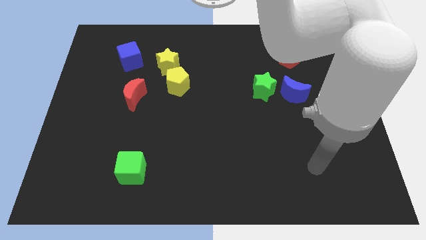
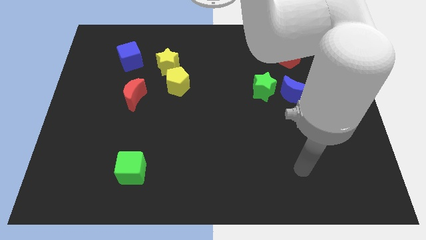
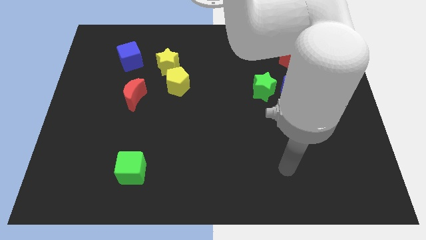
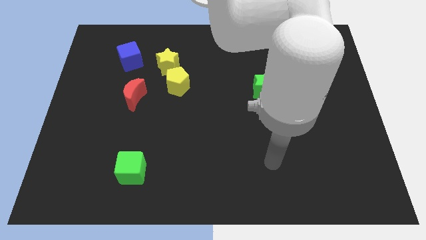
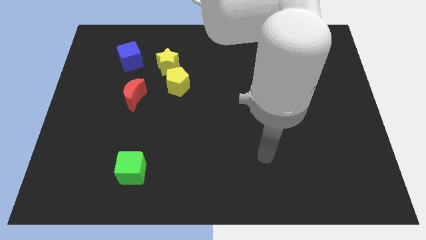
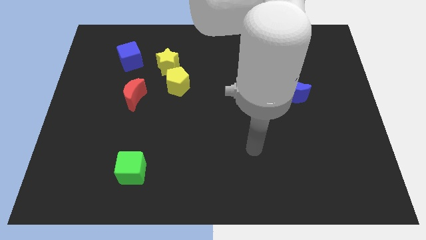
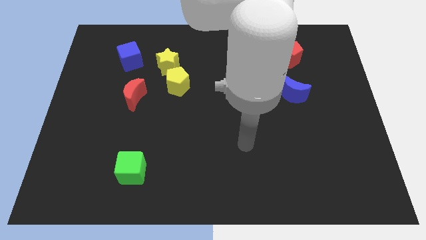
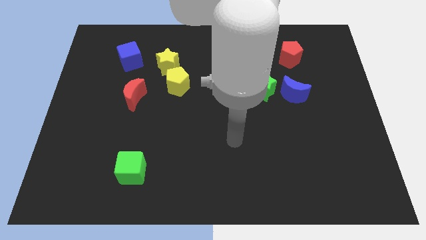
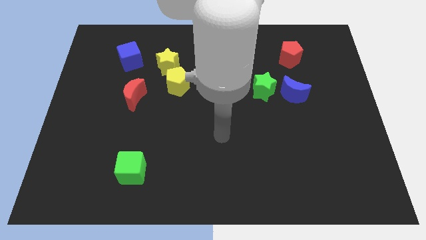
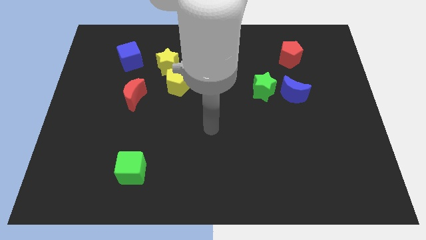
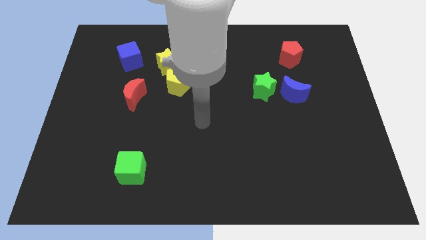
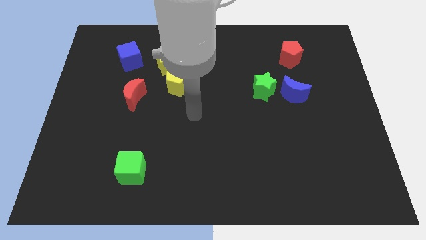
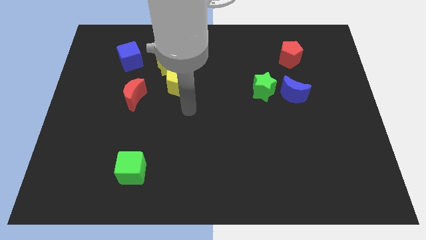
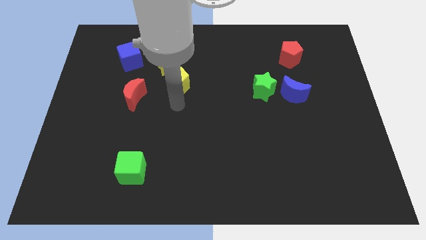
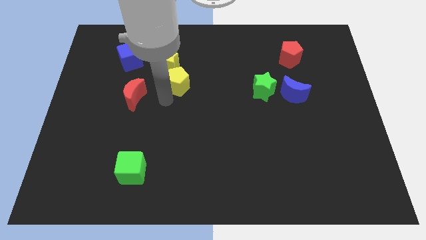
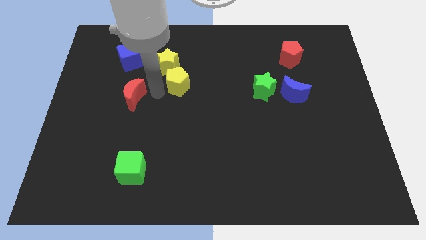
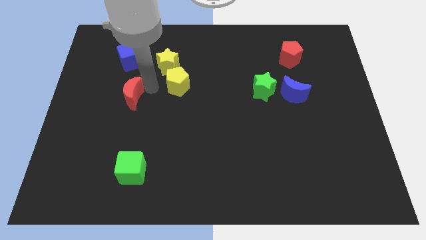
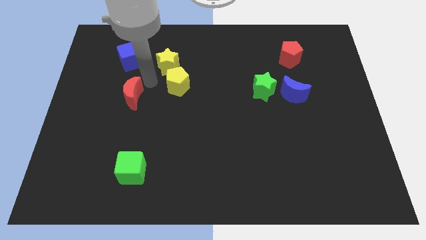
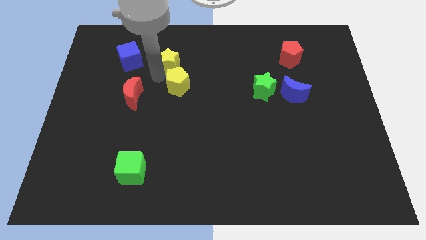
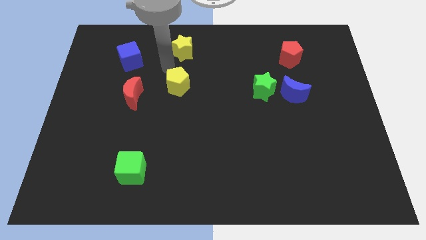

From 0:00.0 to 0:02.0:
pull the yellow pentagon apart from the yellow star

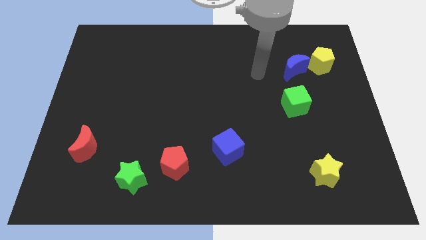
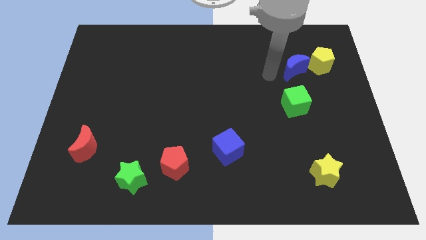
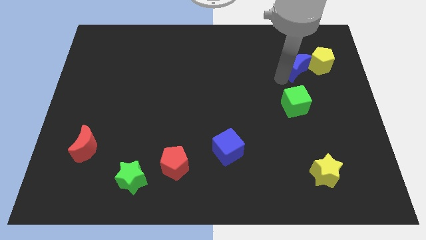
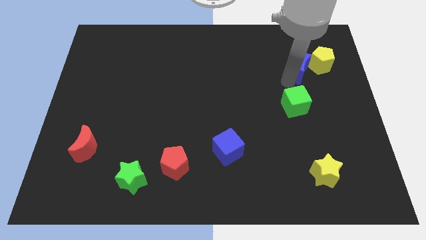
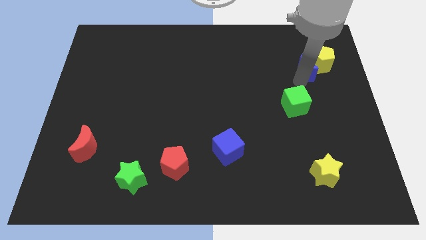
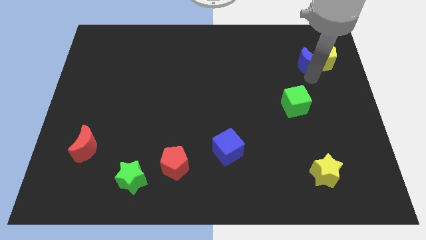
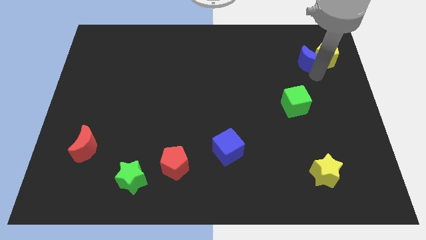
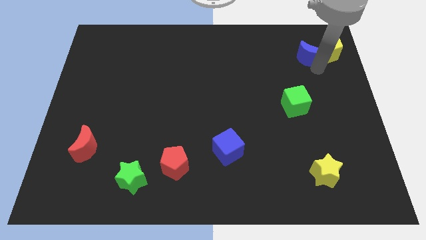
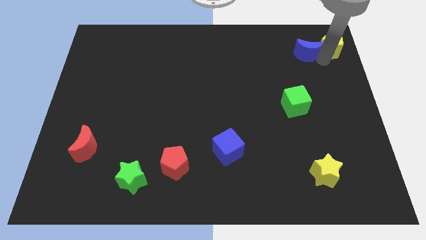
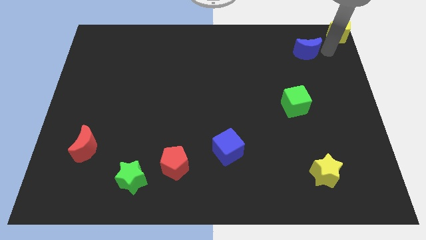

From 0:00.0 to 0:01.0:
separate the blue moon from the yellow pentagon

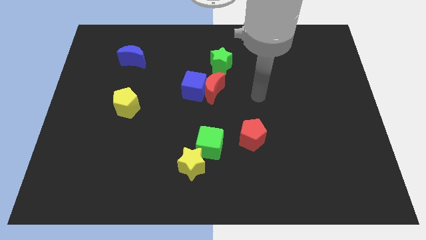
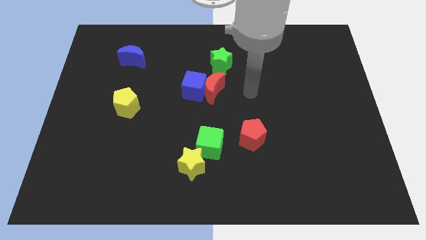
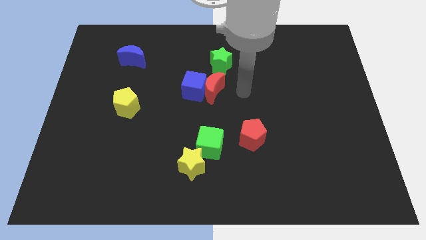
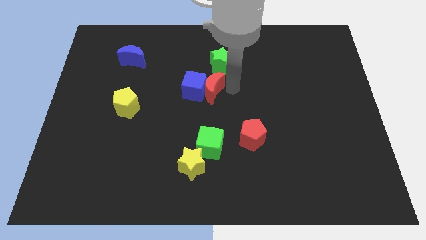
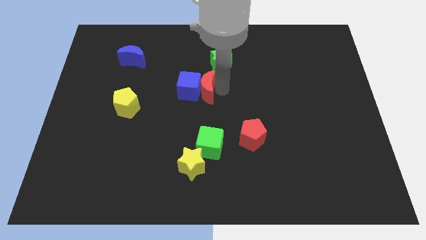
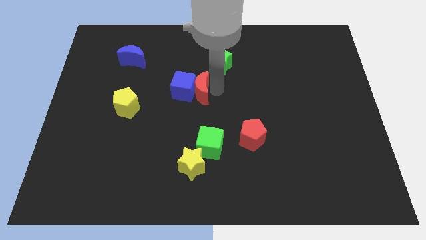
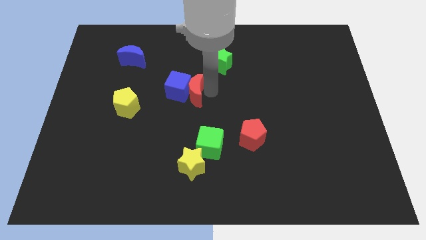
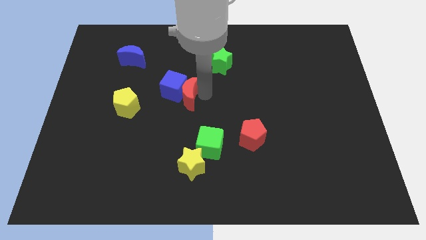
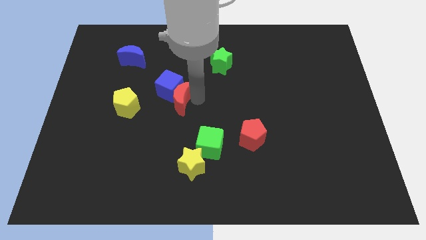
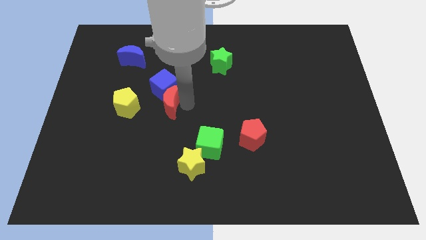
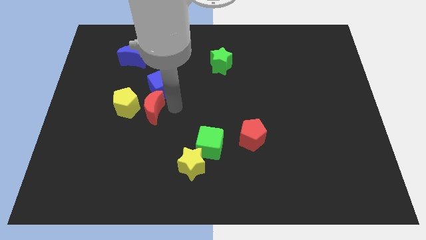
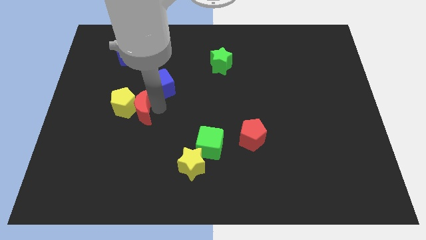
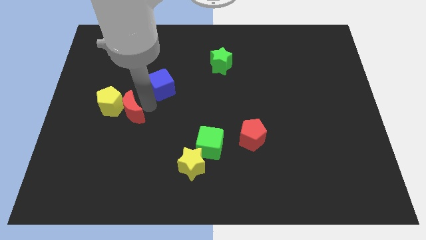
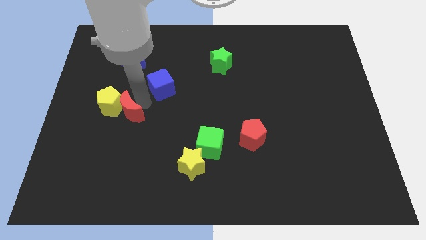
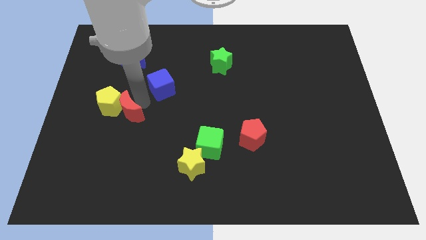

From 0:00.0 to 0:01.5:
pull the blue cube apart from the red moon

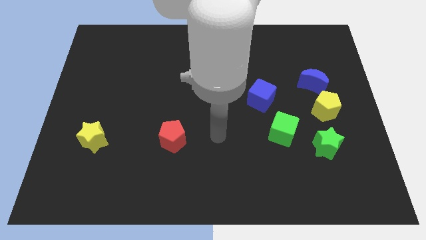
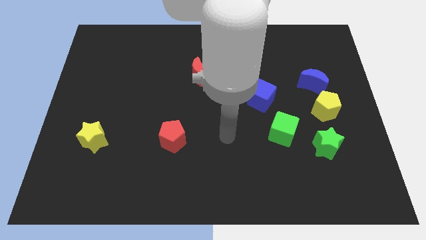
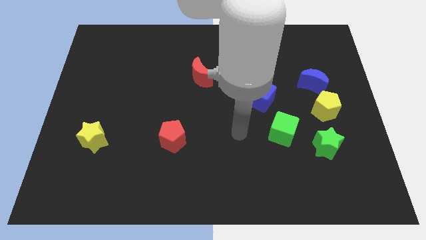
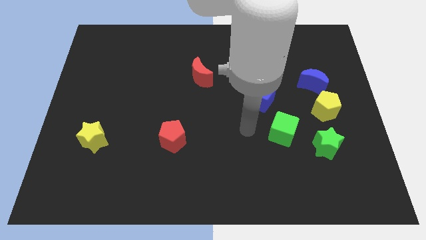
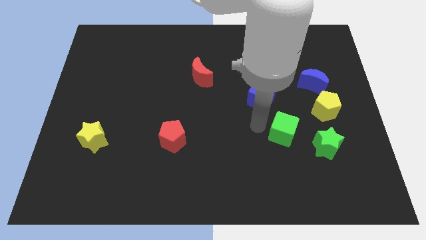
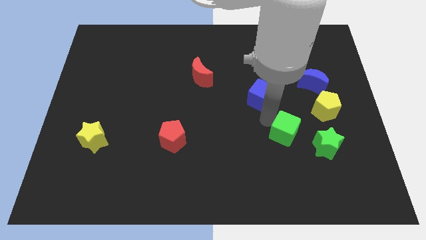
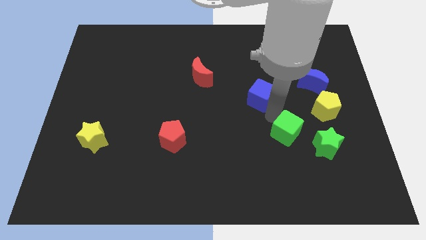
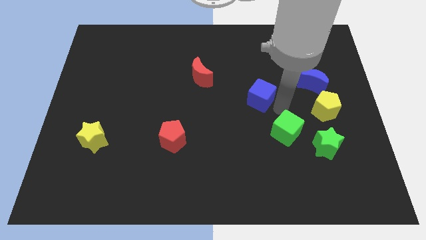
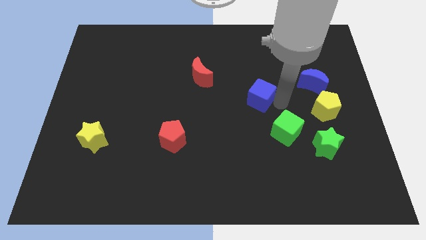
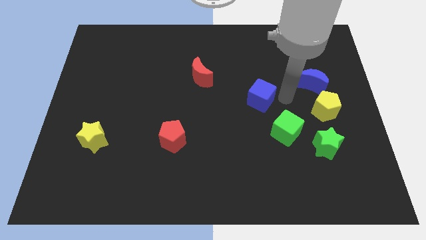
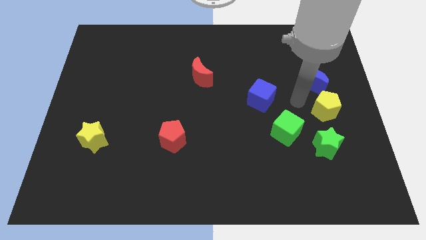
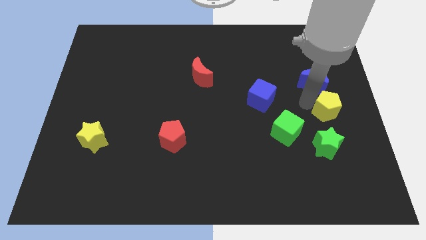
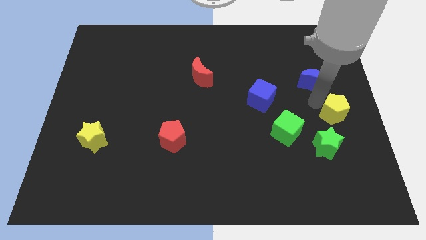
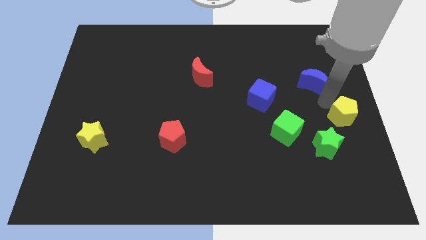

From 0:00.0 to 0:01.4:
move the blue moon away from the yellow pentagon

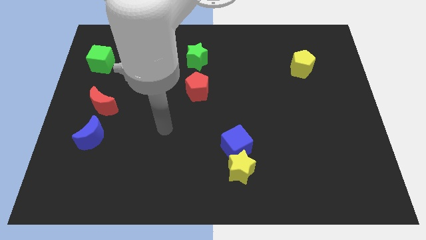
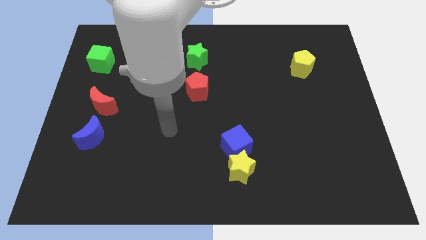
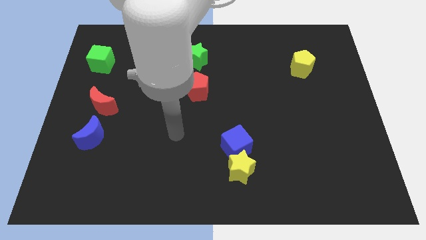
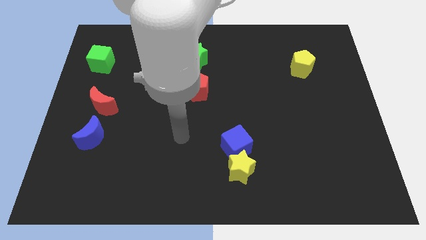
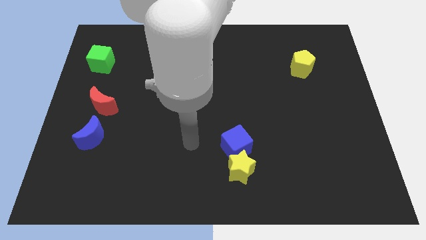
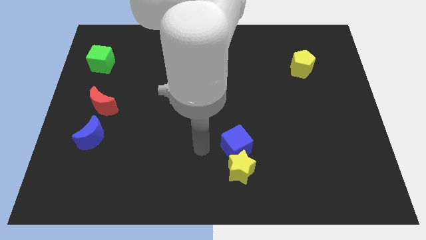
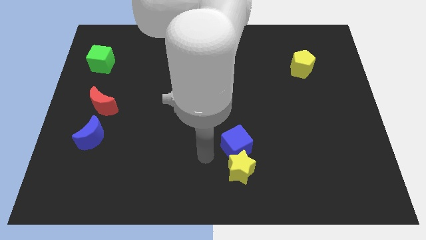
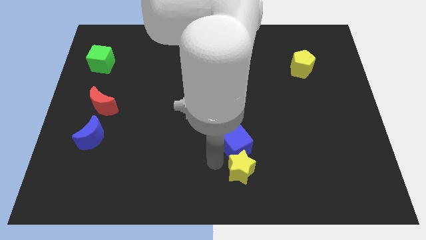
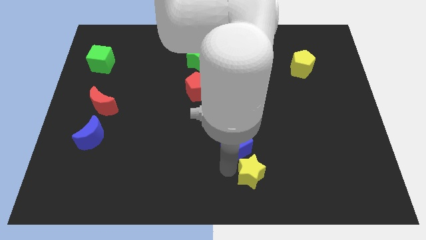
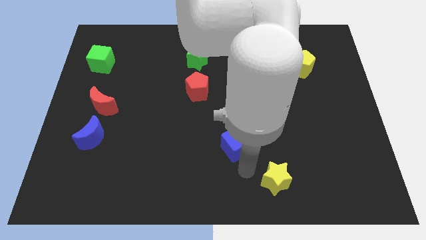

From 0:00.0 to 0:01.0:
move the blue cube away from the yellow star

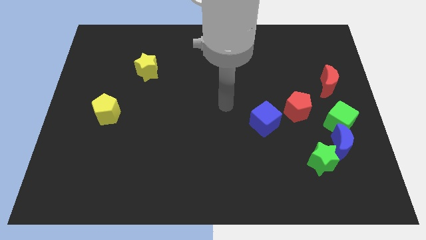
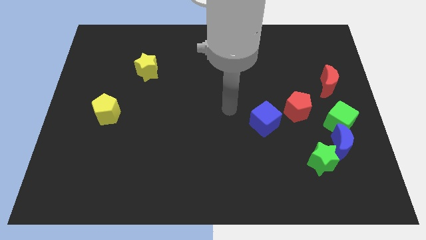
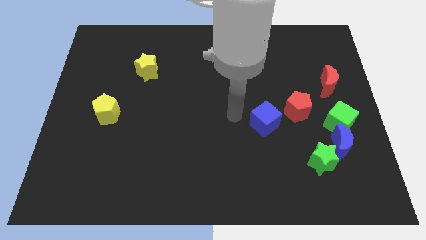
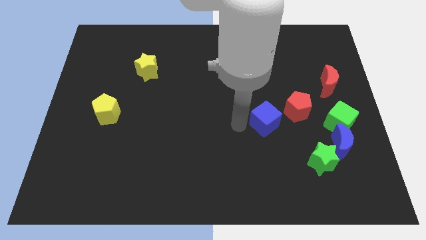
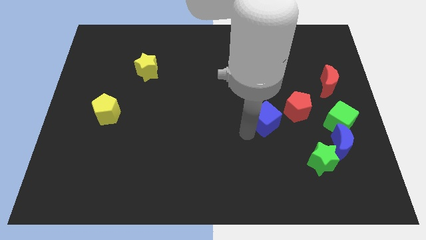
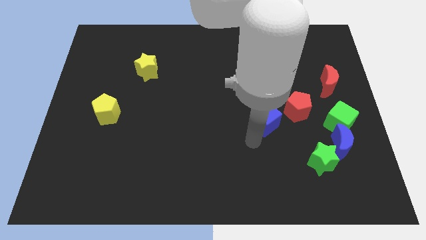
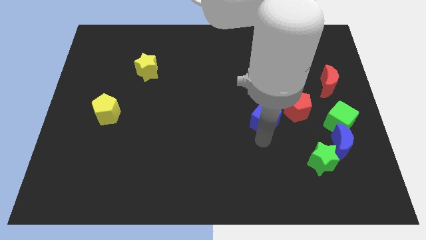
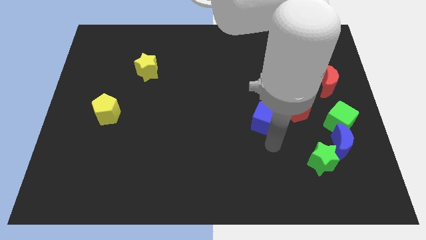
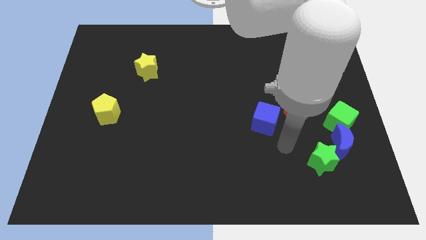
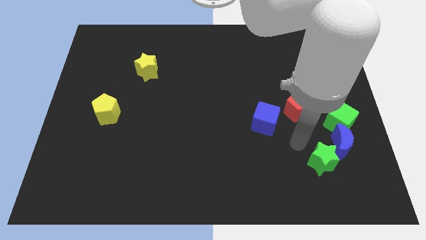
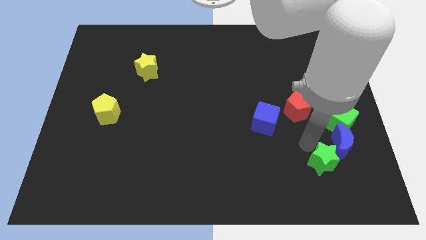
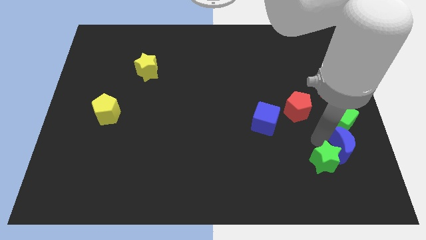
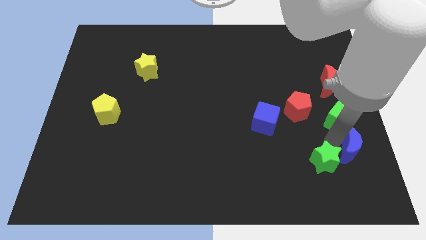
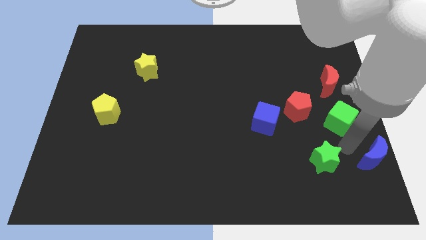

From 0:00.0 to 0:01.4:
separate the green star from the blue moon

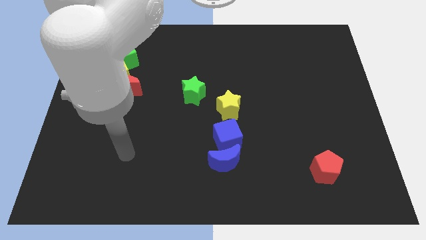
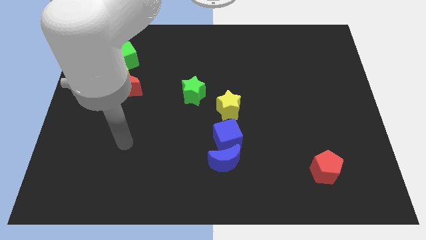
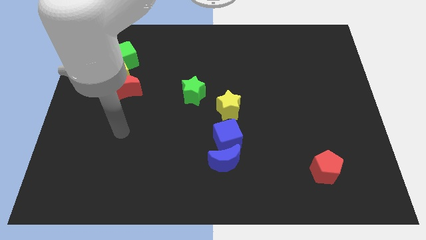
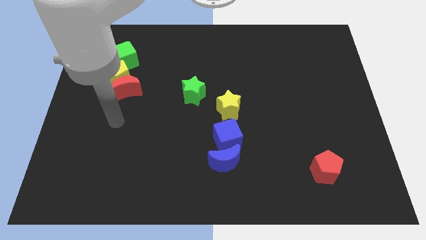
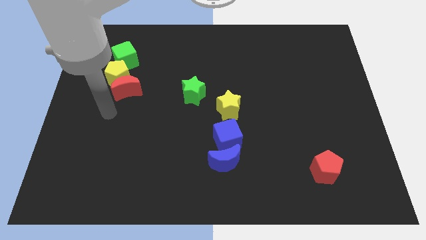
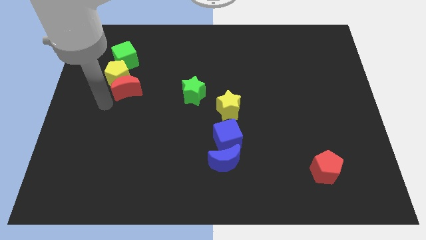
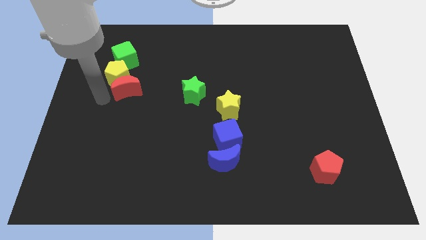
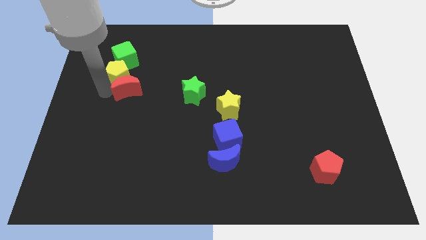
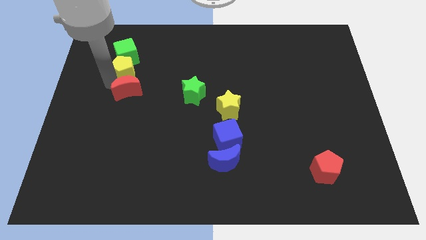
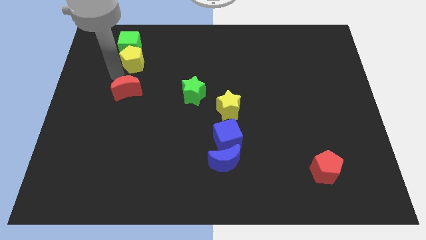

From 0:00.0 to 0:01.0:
move the red moon away from the yellow pentagon
